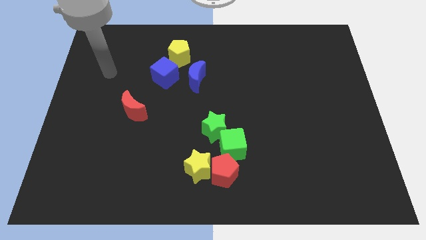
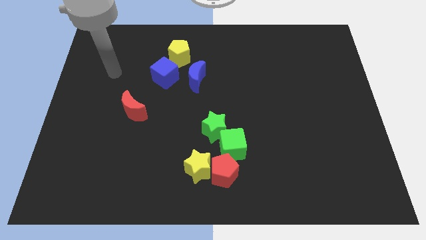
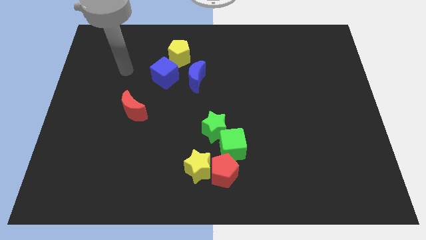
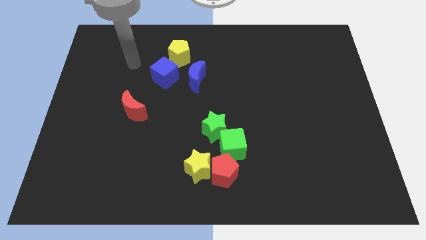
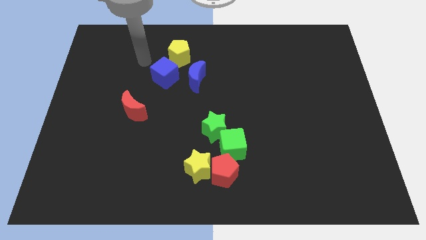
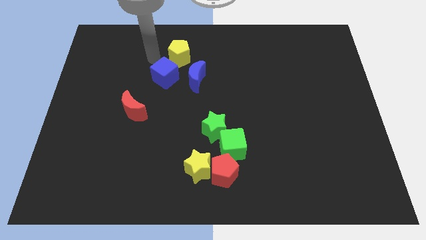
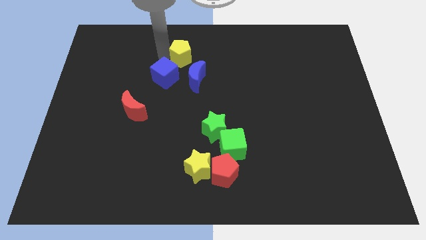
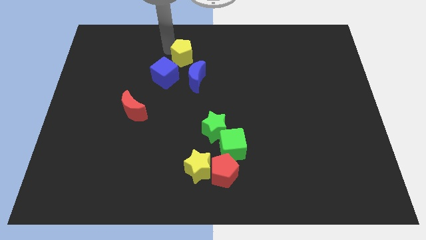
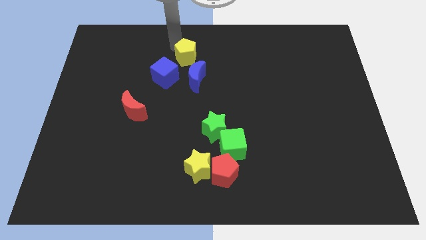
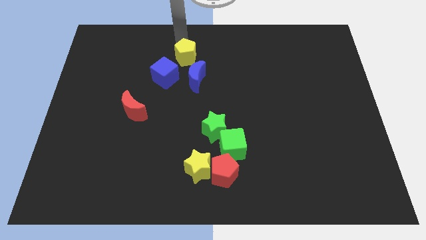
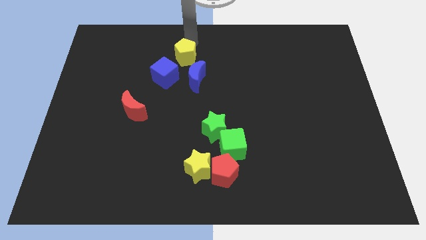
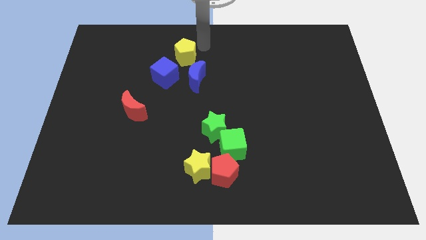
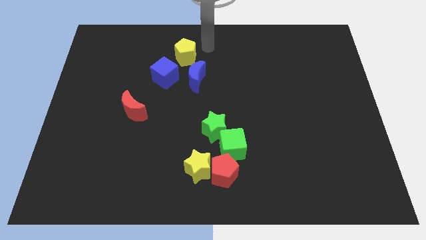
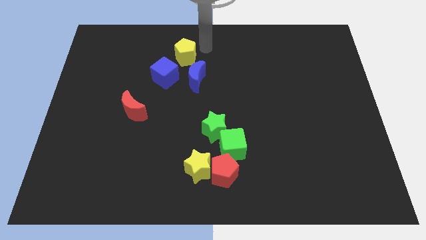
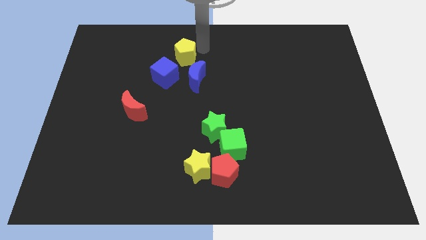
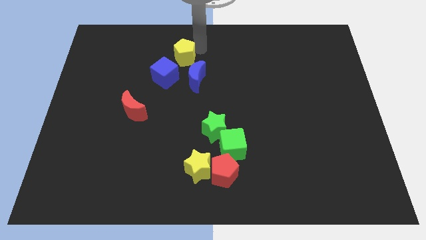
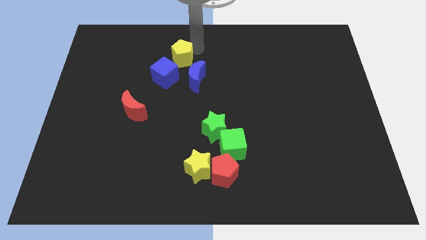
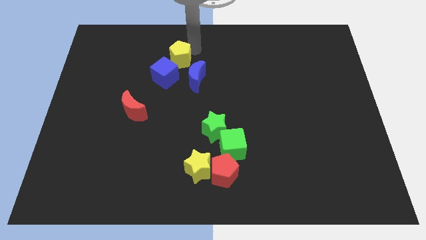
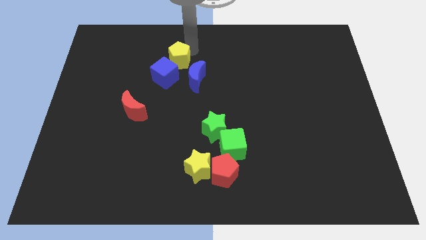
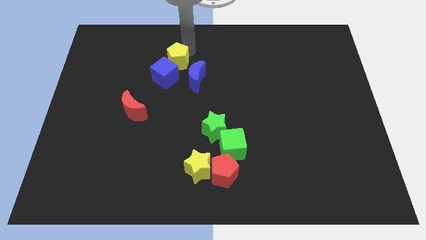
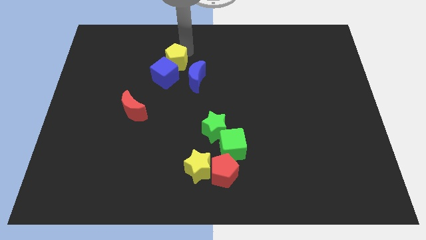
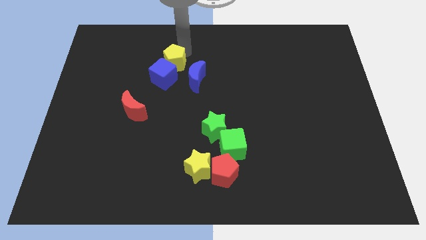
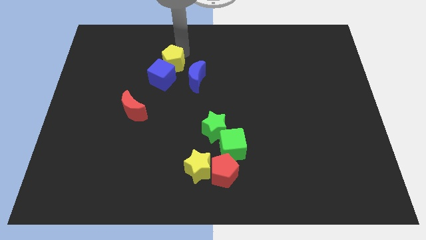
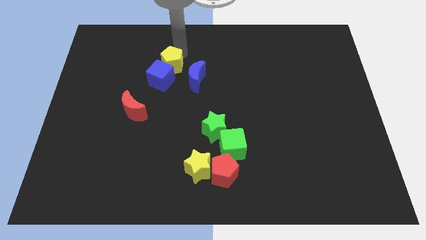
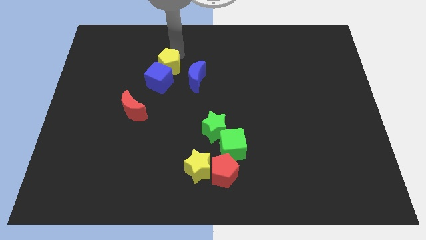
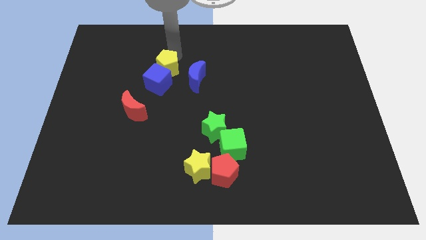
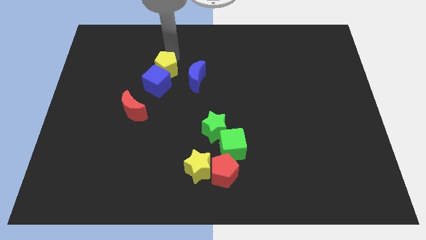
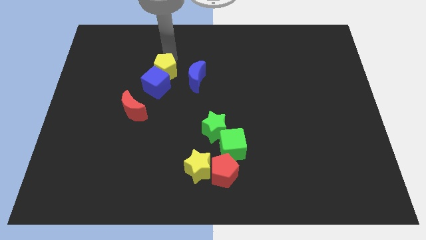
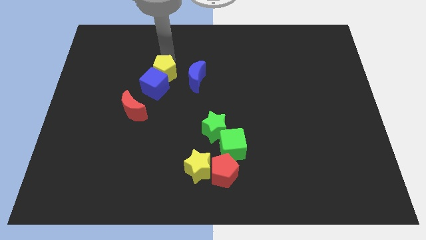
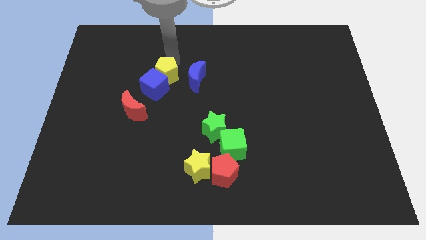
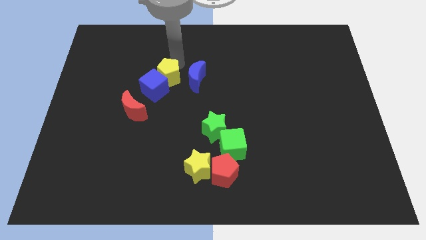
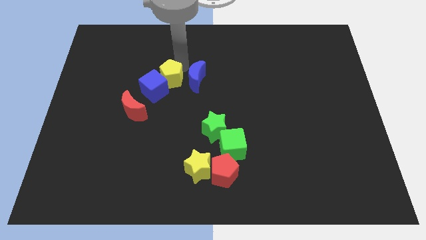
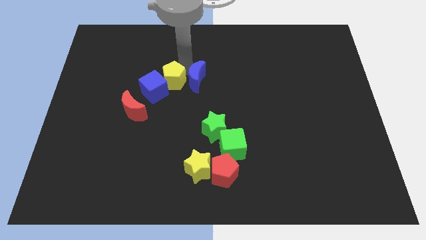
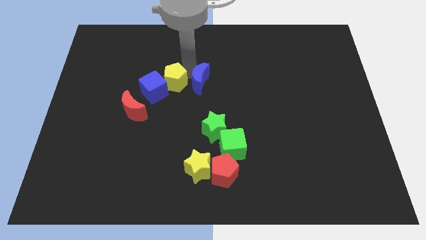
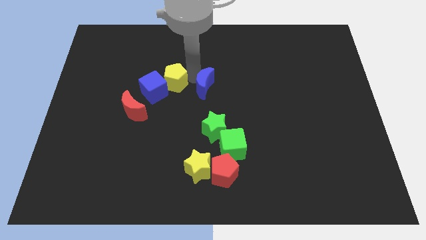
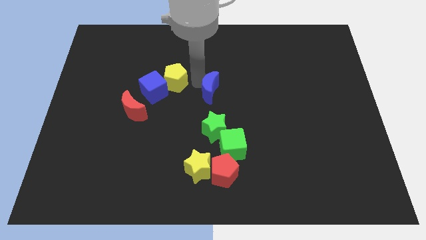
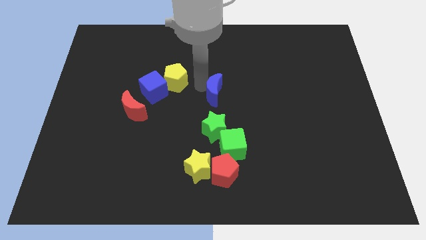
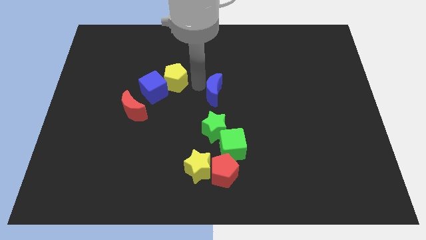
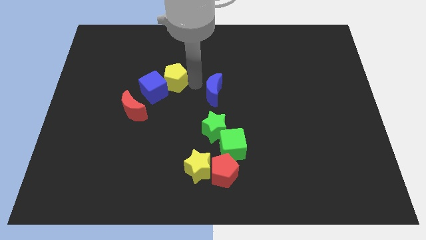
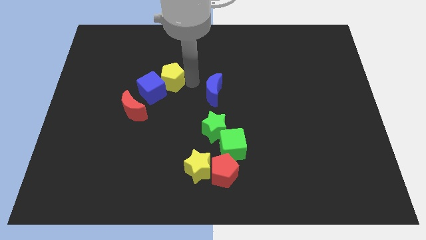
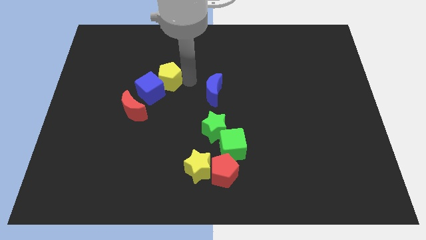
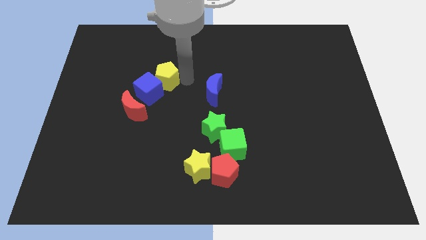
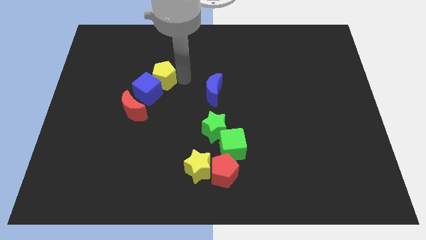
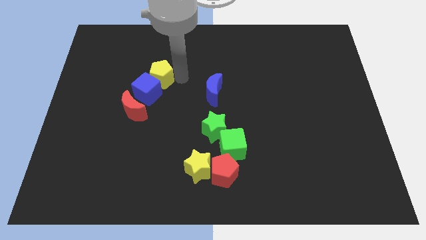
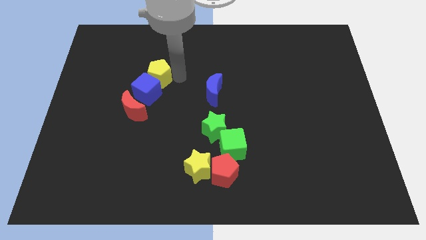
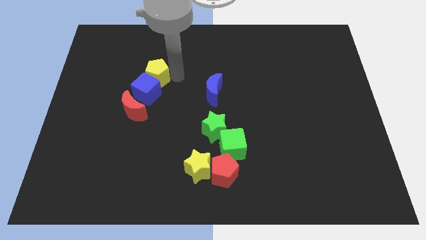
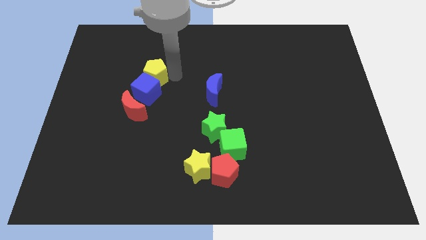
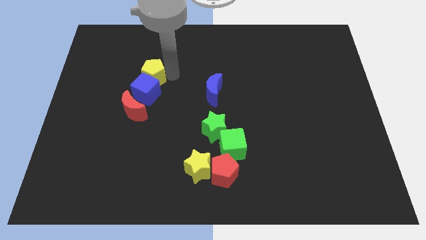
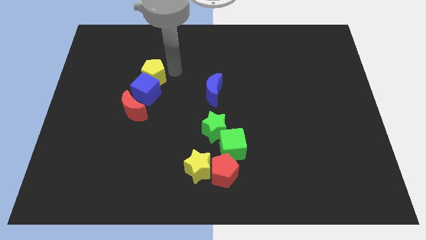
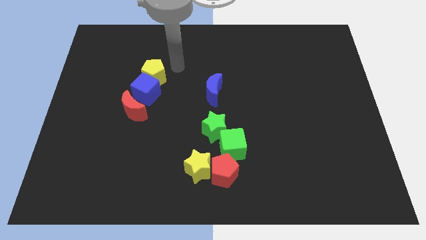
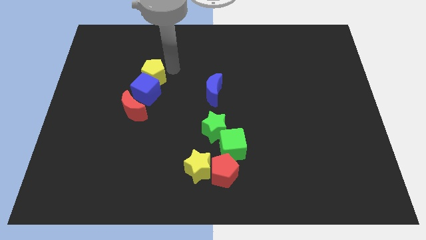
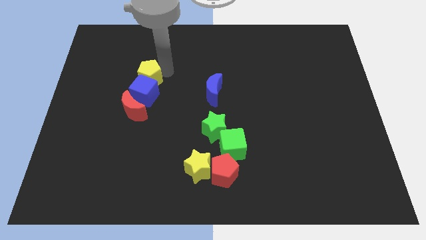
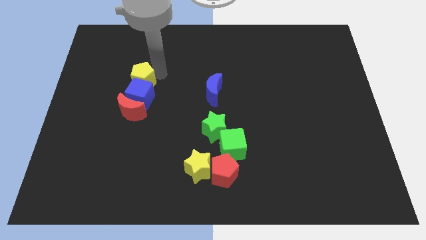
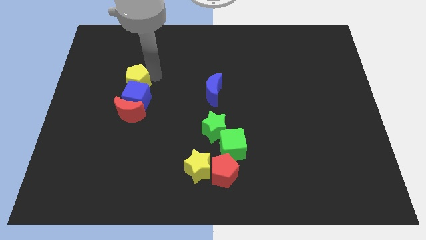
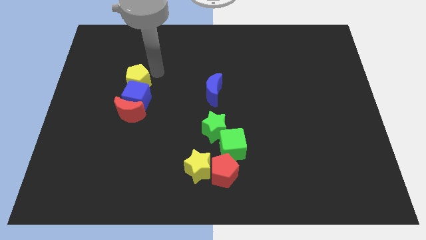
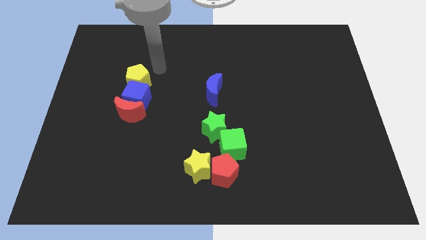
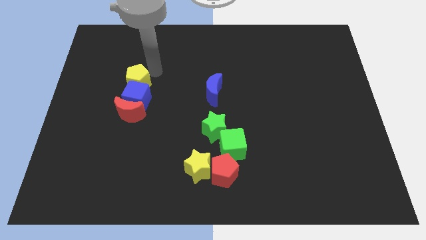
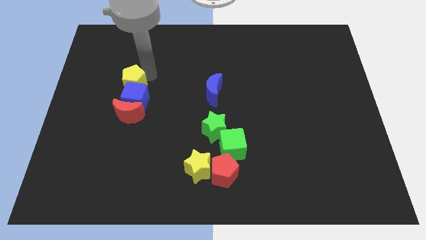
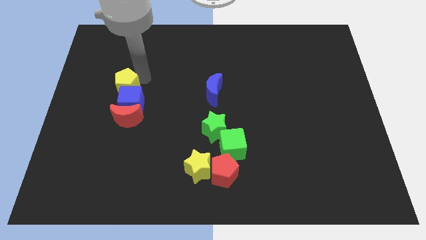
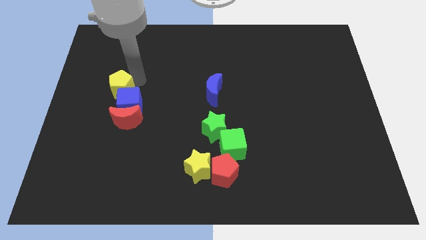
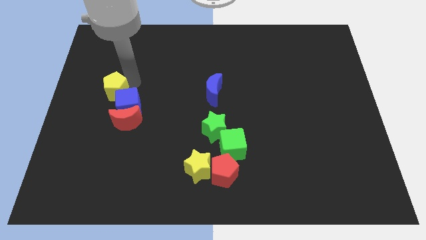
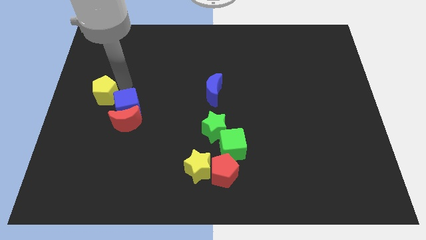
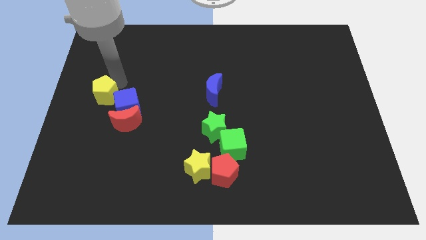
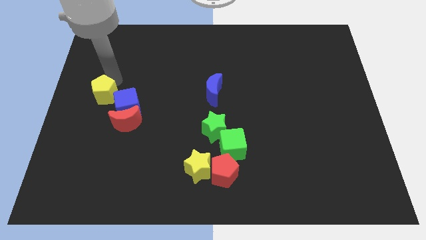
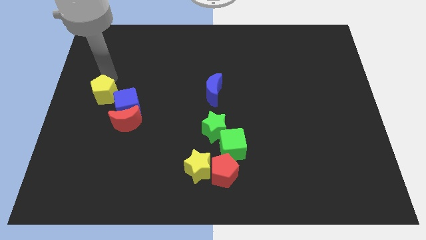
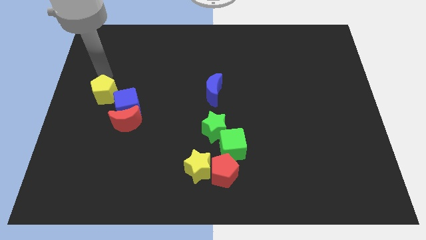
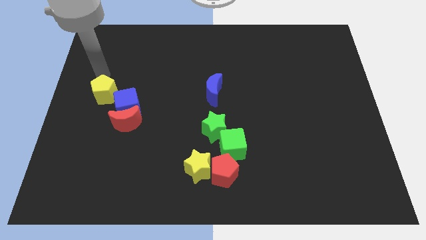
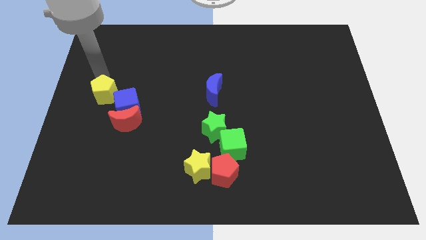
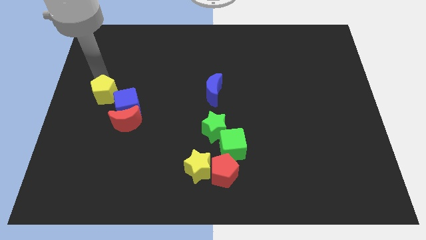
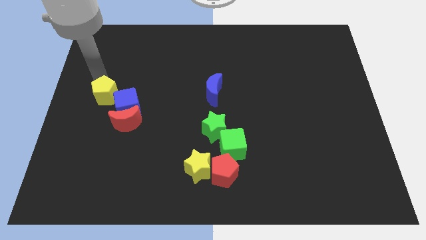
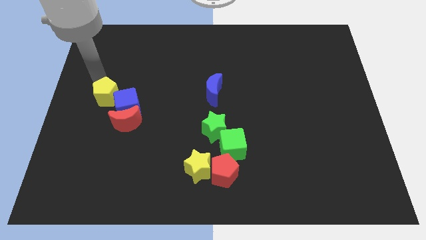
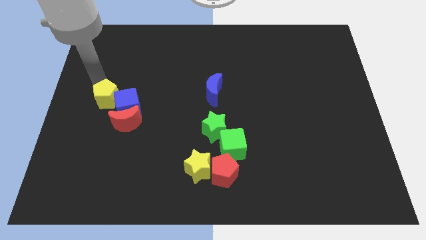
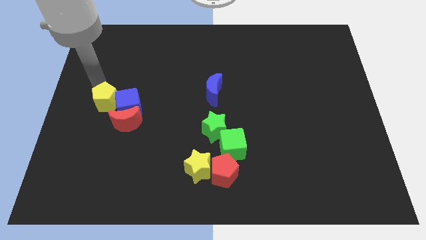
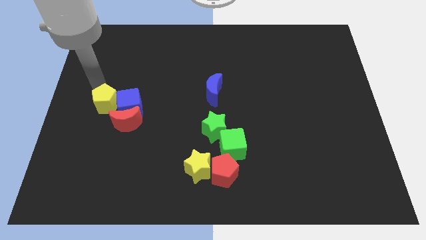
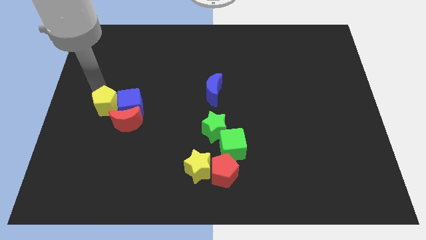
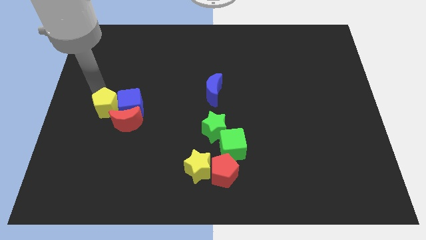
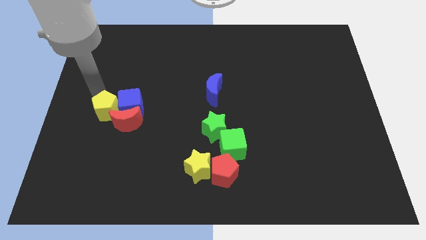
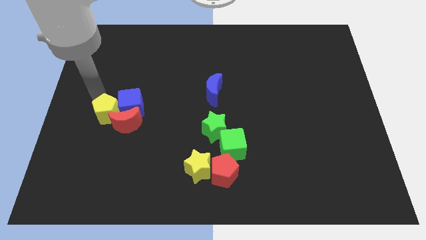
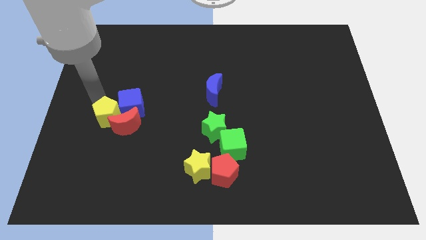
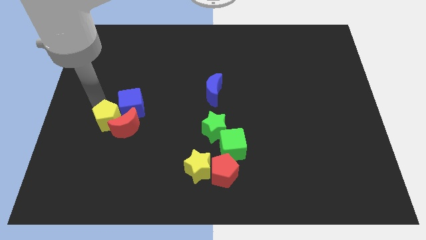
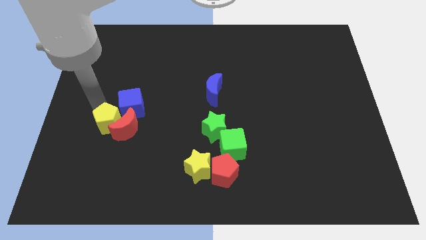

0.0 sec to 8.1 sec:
push the yellow pentagon to the bottom left of the red moon
